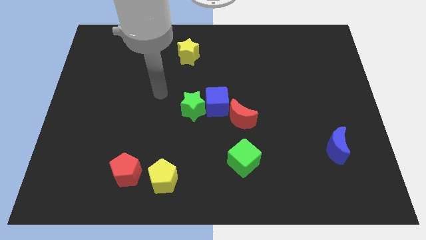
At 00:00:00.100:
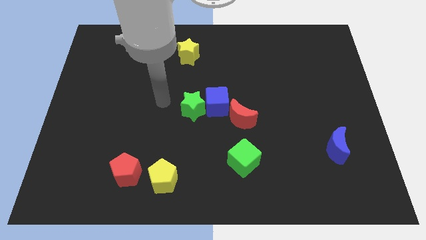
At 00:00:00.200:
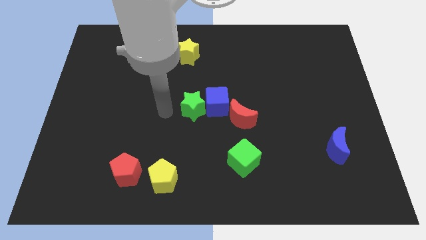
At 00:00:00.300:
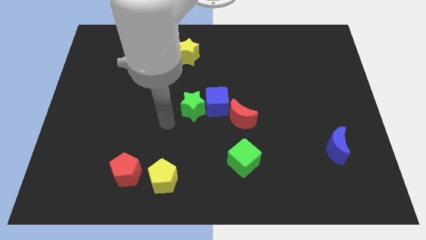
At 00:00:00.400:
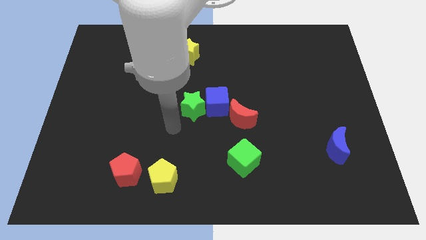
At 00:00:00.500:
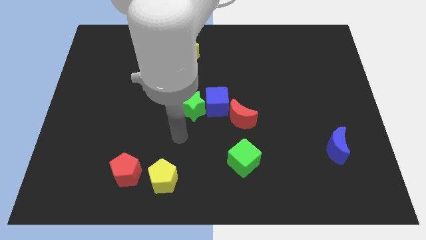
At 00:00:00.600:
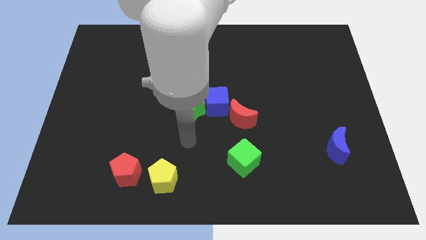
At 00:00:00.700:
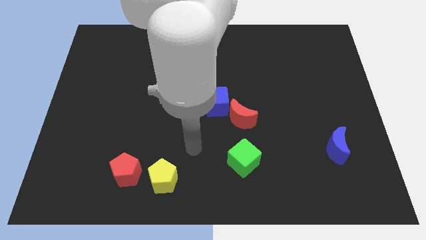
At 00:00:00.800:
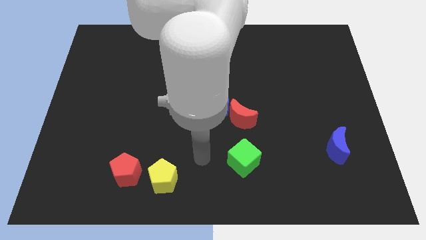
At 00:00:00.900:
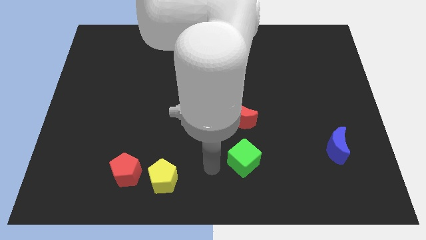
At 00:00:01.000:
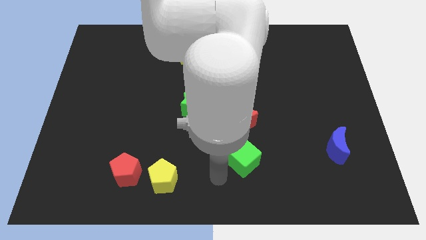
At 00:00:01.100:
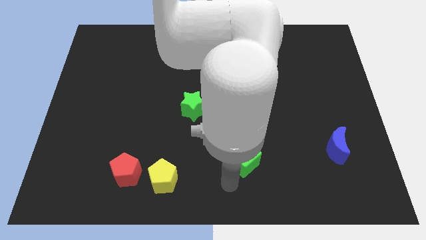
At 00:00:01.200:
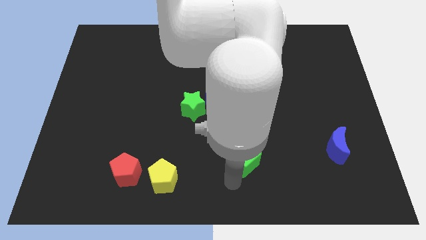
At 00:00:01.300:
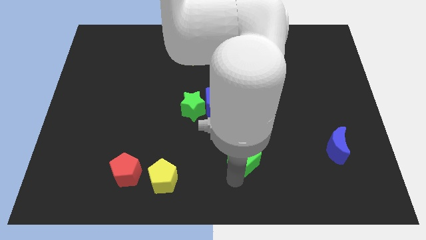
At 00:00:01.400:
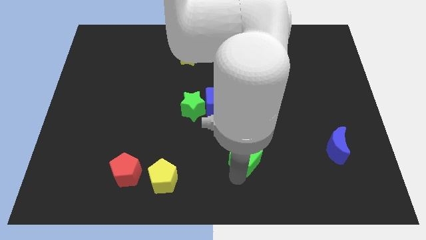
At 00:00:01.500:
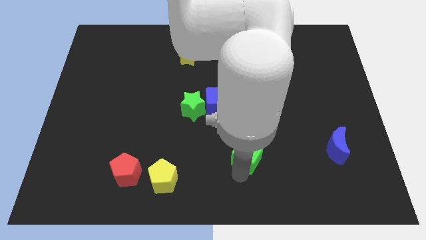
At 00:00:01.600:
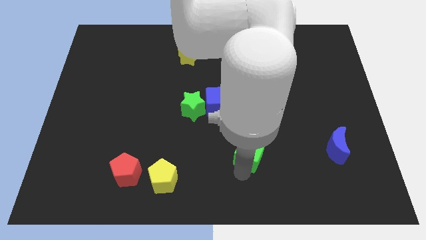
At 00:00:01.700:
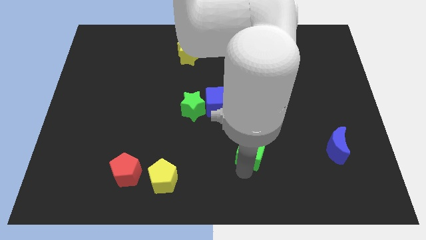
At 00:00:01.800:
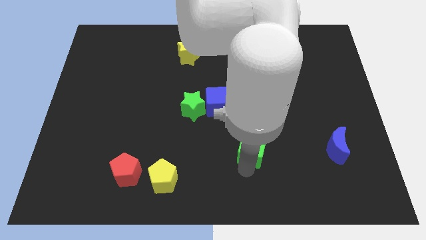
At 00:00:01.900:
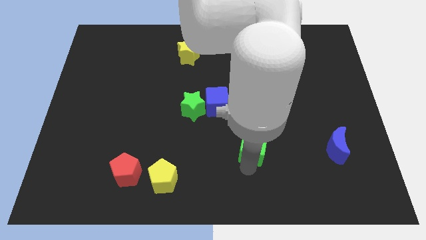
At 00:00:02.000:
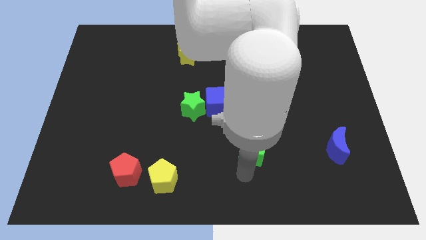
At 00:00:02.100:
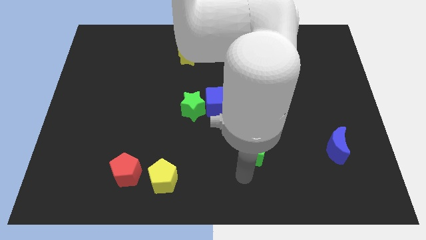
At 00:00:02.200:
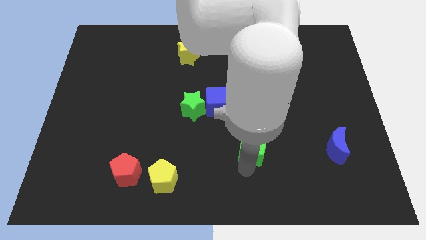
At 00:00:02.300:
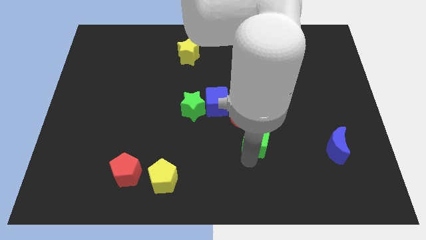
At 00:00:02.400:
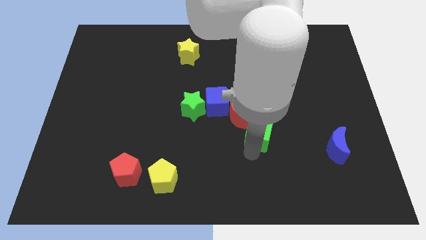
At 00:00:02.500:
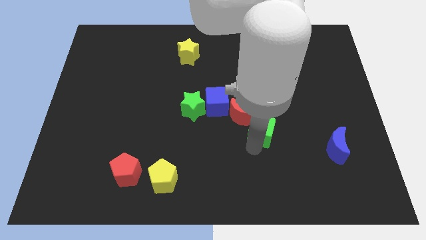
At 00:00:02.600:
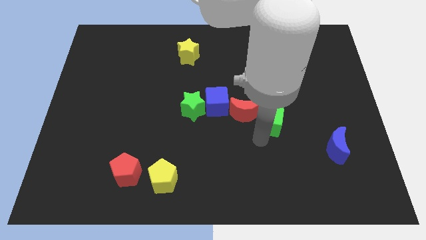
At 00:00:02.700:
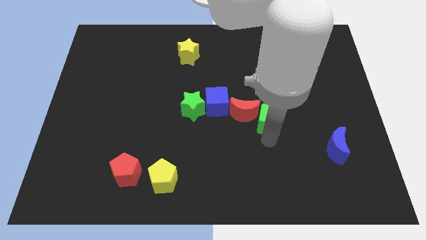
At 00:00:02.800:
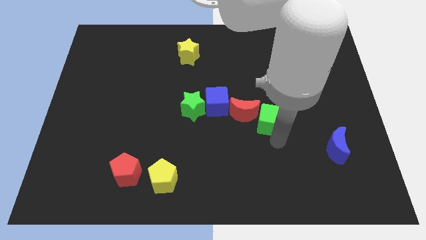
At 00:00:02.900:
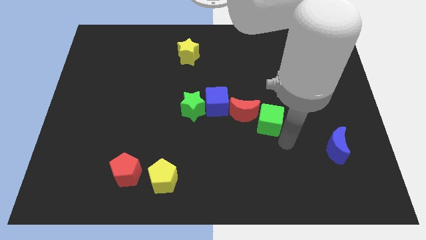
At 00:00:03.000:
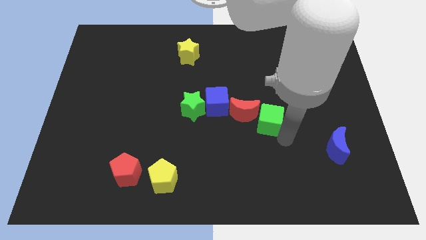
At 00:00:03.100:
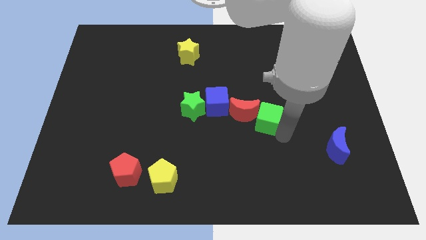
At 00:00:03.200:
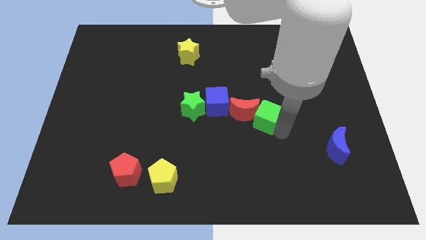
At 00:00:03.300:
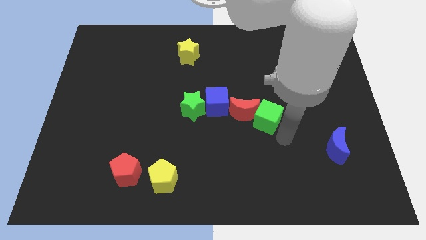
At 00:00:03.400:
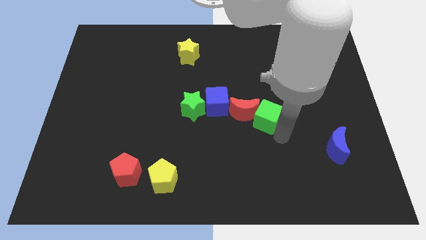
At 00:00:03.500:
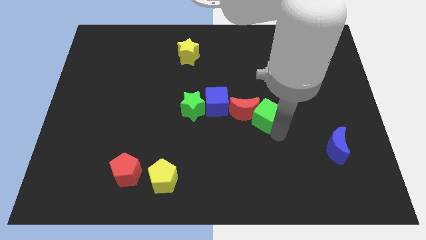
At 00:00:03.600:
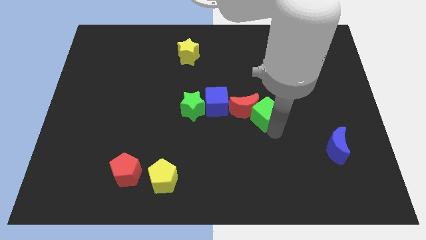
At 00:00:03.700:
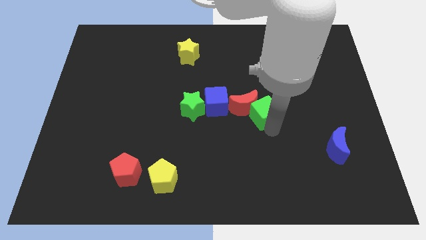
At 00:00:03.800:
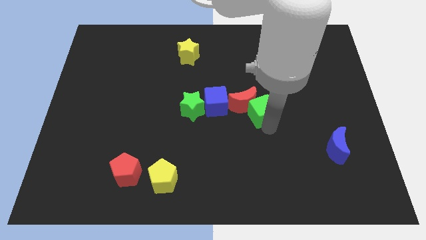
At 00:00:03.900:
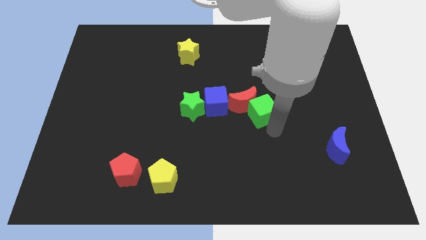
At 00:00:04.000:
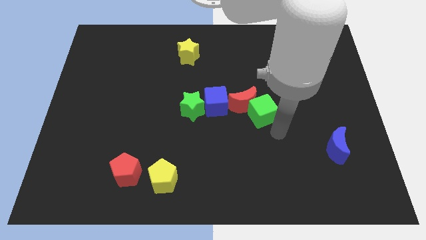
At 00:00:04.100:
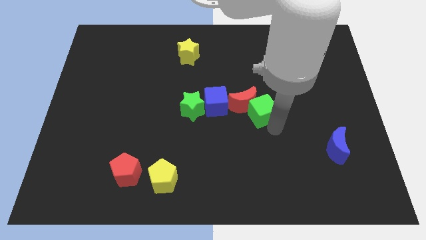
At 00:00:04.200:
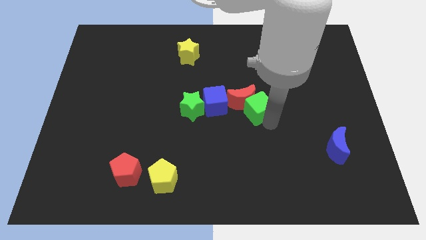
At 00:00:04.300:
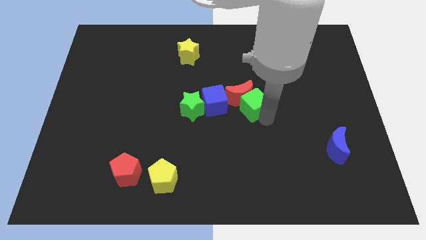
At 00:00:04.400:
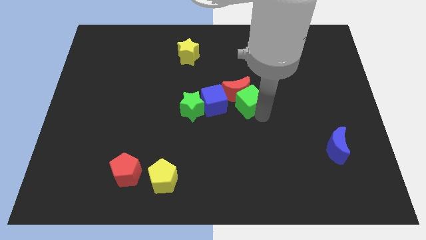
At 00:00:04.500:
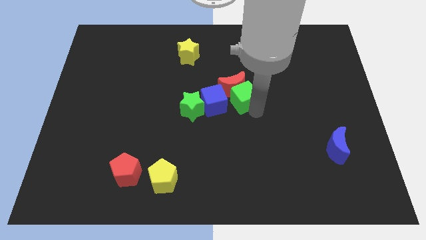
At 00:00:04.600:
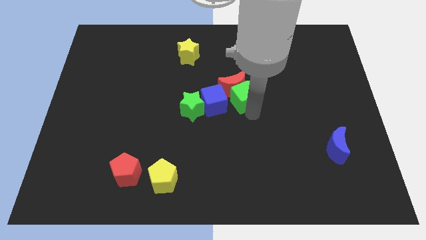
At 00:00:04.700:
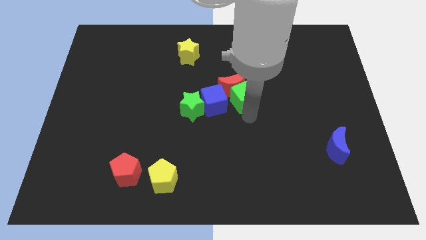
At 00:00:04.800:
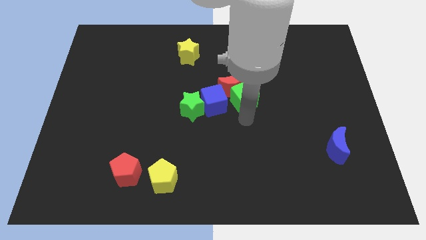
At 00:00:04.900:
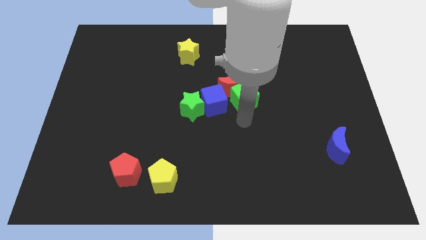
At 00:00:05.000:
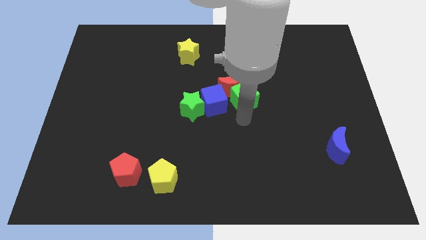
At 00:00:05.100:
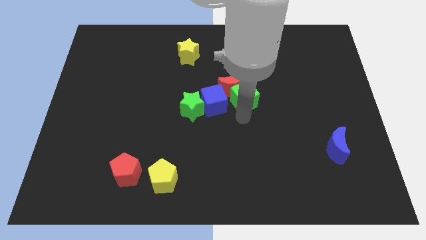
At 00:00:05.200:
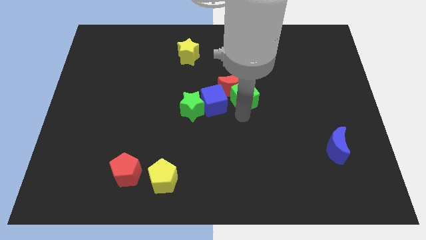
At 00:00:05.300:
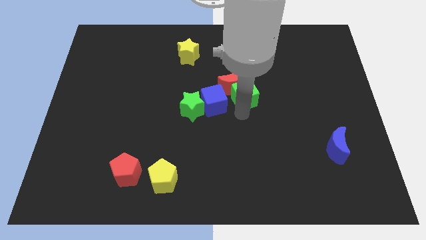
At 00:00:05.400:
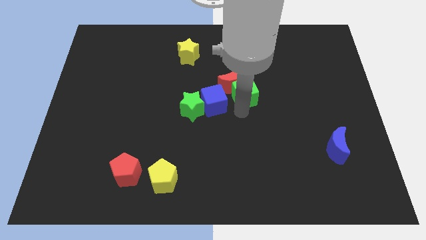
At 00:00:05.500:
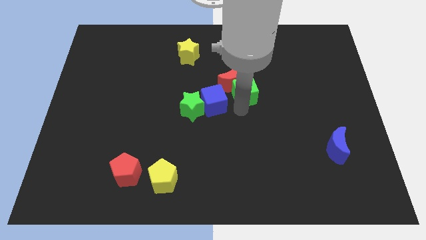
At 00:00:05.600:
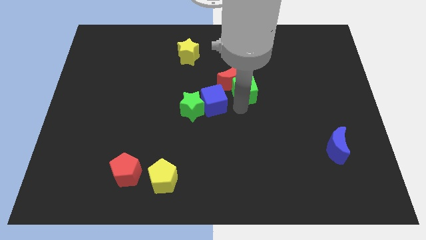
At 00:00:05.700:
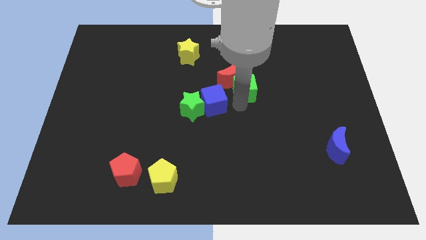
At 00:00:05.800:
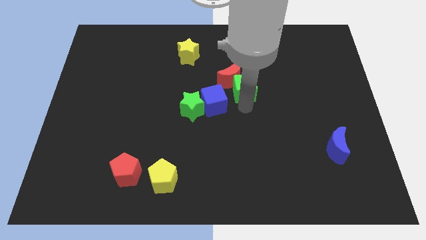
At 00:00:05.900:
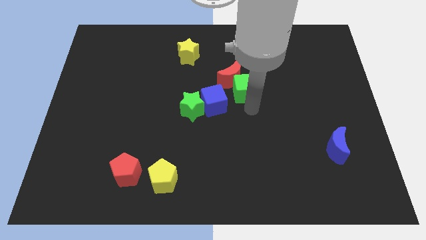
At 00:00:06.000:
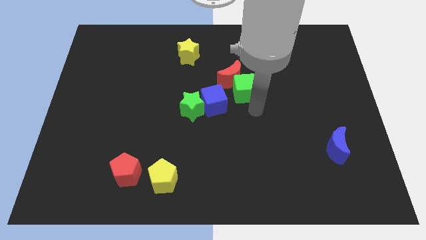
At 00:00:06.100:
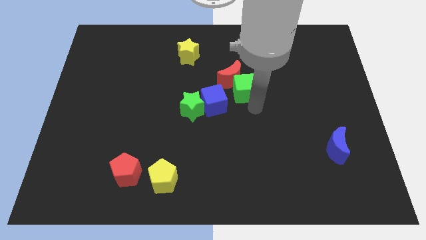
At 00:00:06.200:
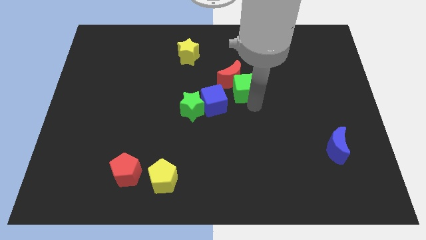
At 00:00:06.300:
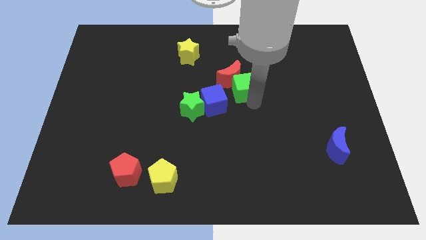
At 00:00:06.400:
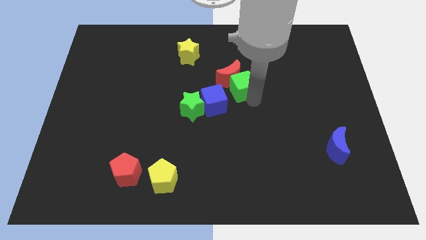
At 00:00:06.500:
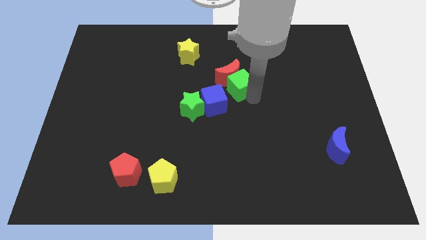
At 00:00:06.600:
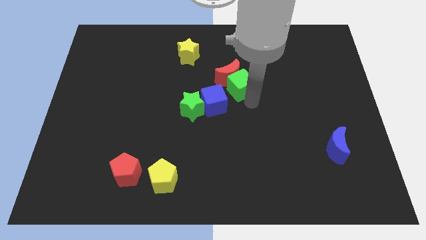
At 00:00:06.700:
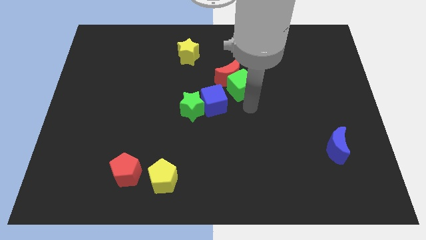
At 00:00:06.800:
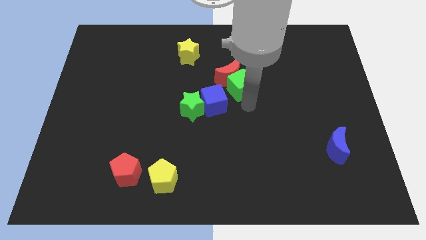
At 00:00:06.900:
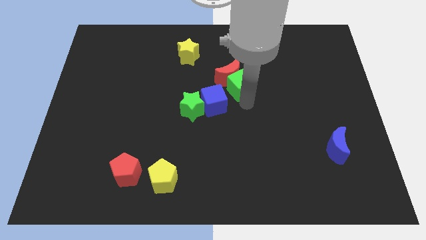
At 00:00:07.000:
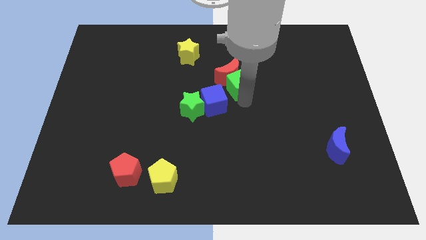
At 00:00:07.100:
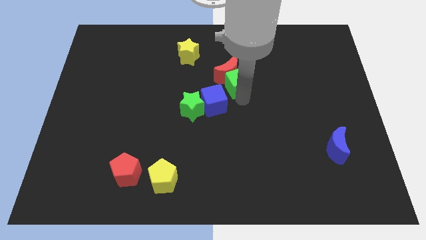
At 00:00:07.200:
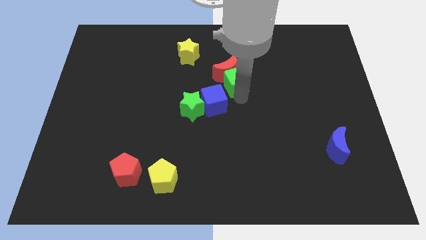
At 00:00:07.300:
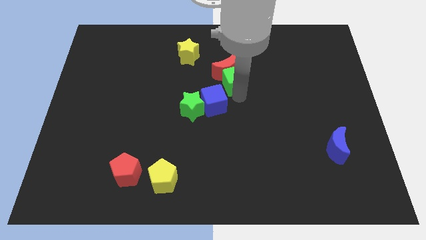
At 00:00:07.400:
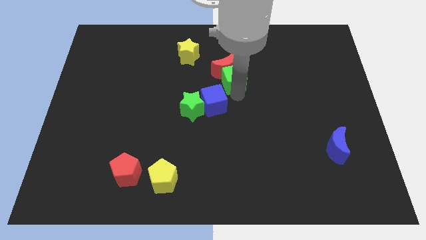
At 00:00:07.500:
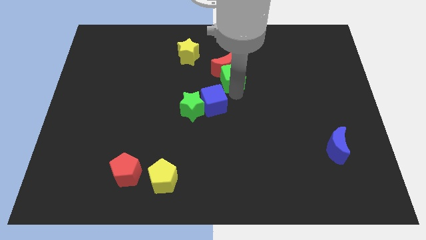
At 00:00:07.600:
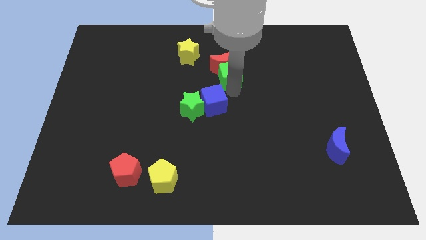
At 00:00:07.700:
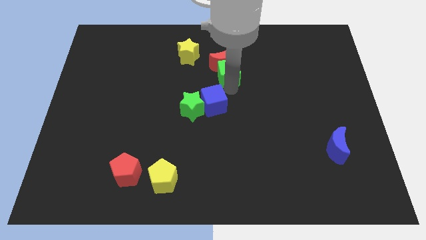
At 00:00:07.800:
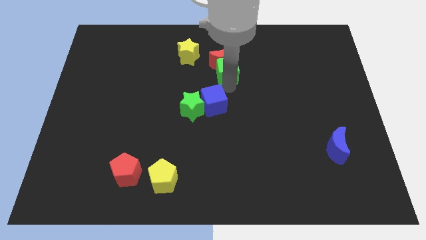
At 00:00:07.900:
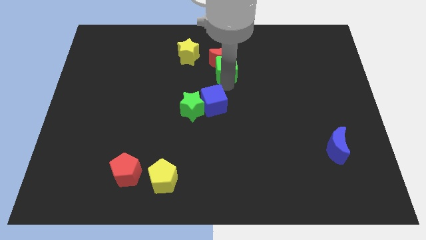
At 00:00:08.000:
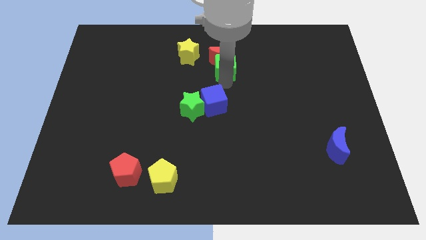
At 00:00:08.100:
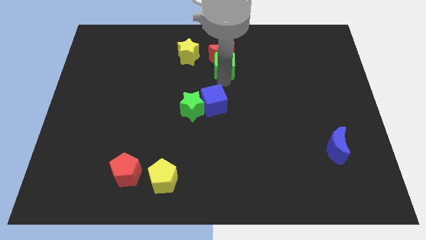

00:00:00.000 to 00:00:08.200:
slide the green cube to the right side of the yellow star
